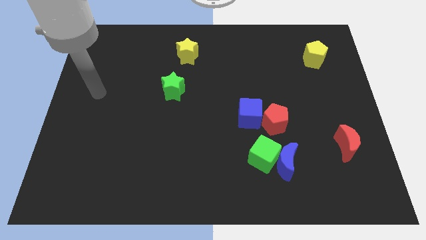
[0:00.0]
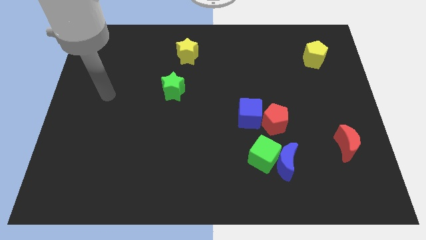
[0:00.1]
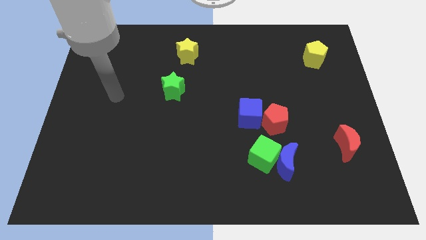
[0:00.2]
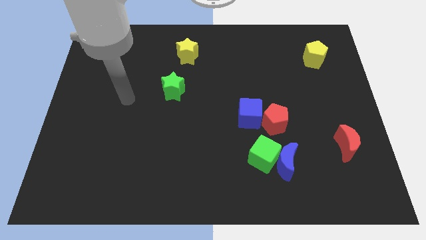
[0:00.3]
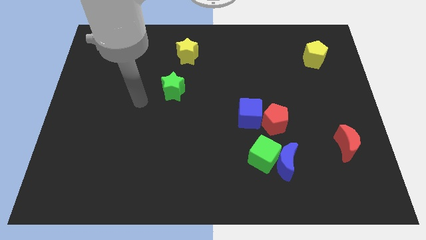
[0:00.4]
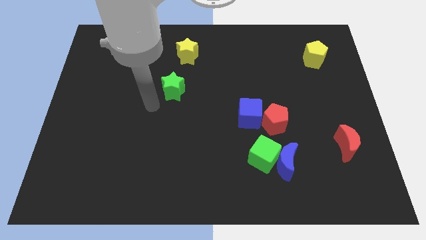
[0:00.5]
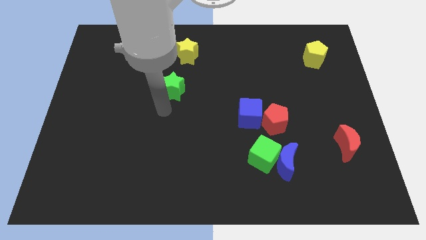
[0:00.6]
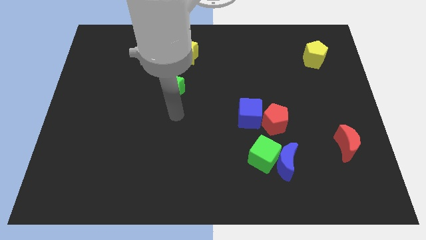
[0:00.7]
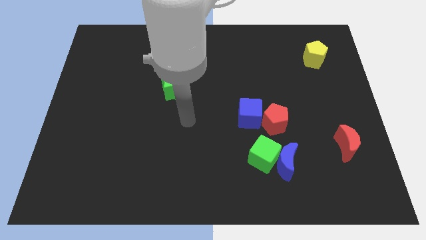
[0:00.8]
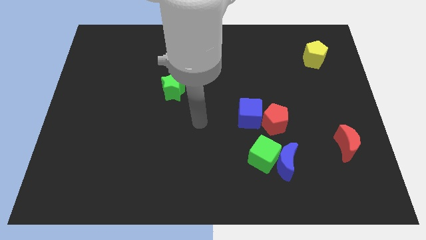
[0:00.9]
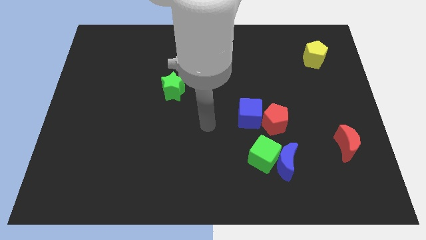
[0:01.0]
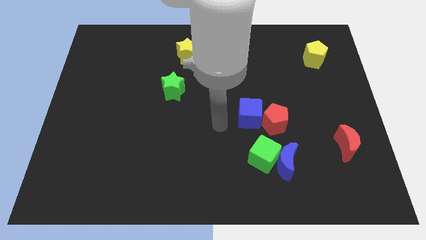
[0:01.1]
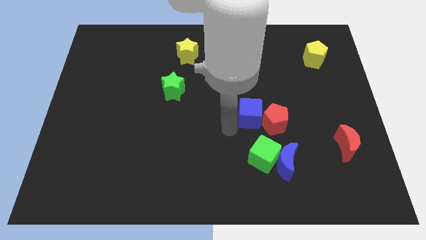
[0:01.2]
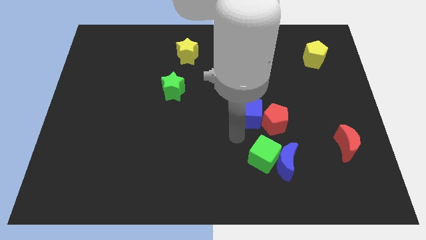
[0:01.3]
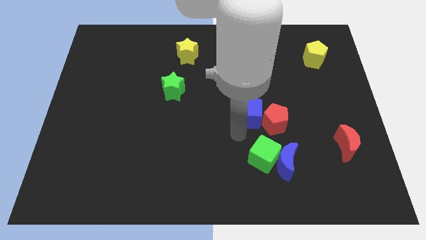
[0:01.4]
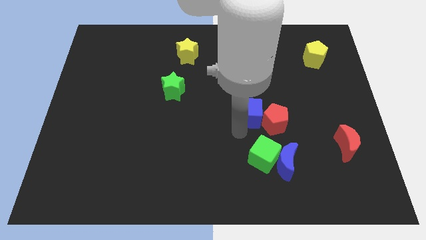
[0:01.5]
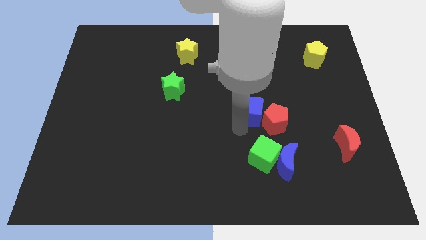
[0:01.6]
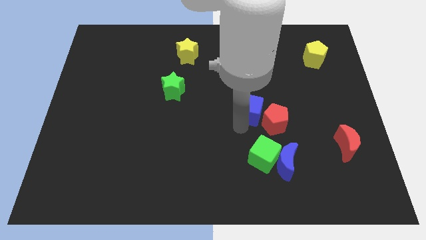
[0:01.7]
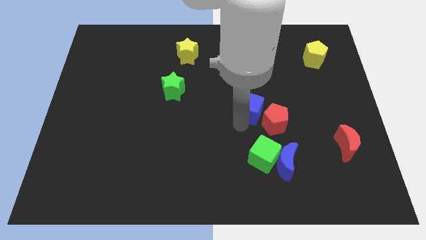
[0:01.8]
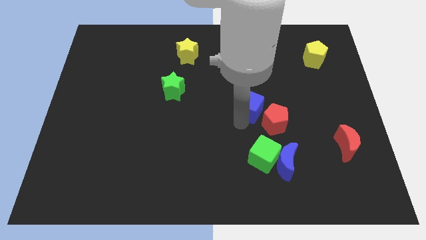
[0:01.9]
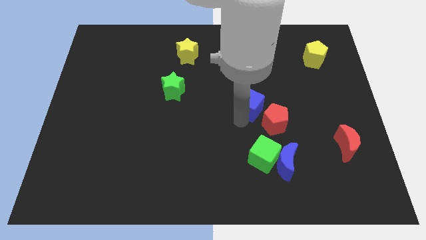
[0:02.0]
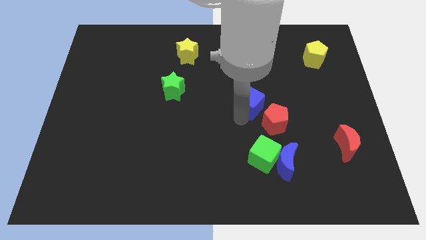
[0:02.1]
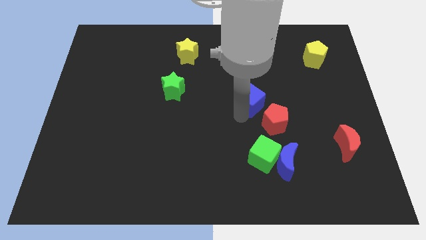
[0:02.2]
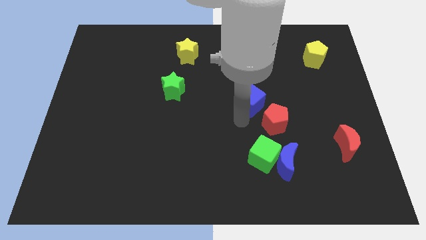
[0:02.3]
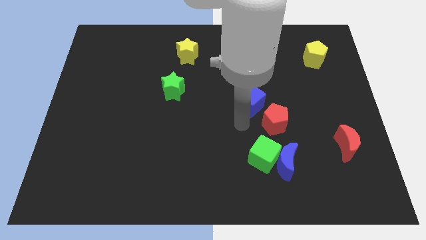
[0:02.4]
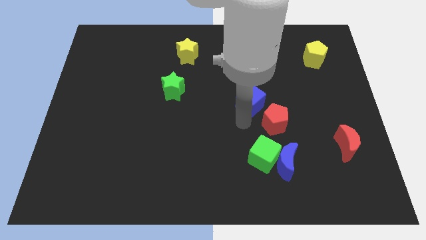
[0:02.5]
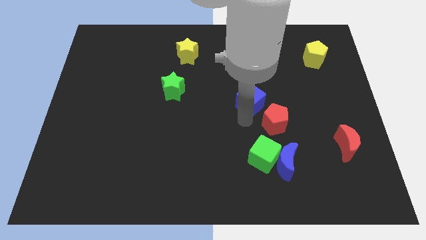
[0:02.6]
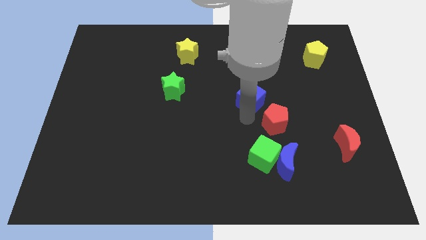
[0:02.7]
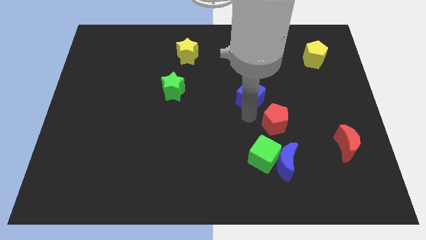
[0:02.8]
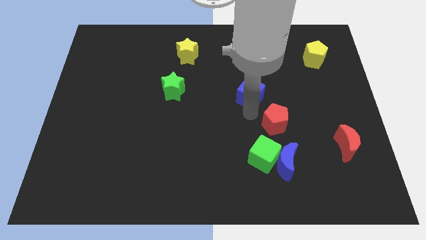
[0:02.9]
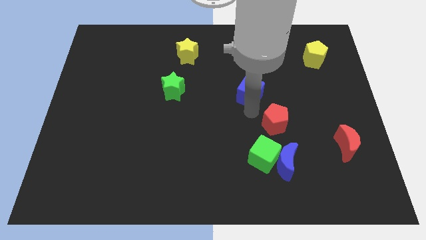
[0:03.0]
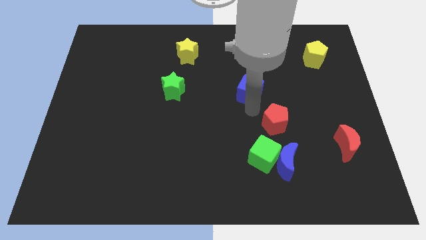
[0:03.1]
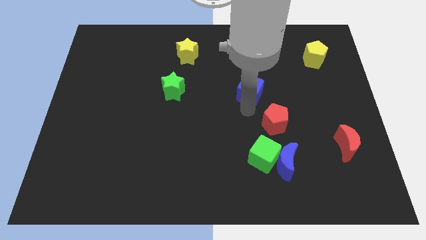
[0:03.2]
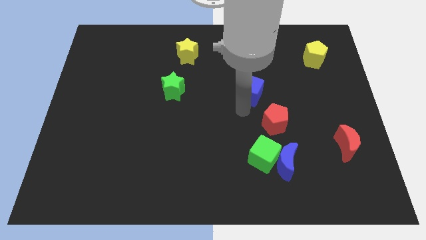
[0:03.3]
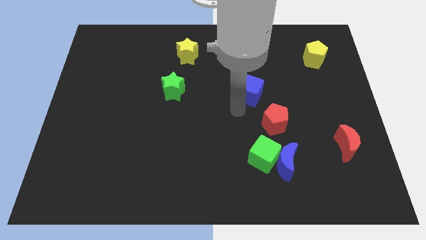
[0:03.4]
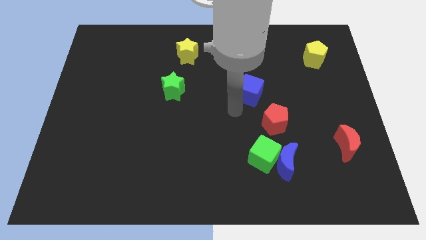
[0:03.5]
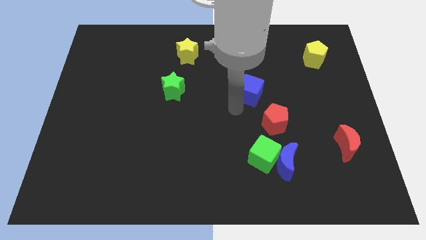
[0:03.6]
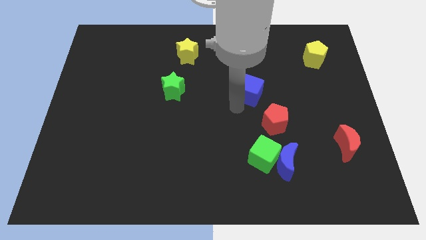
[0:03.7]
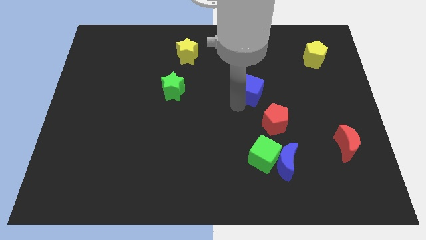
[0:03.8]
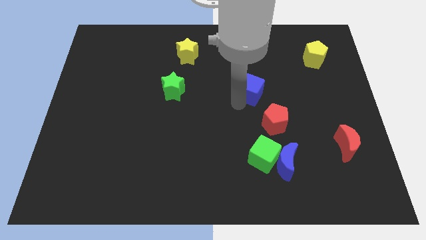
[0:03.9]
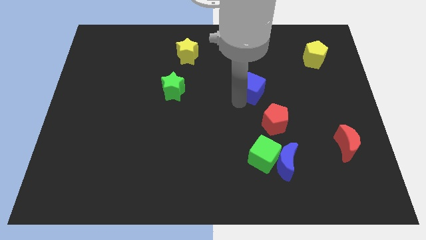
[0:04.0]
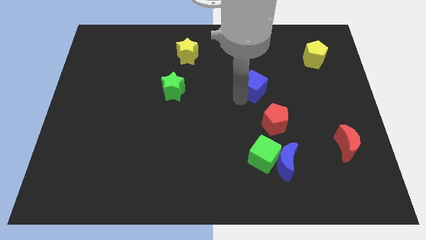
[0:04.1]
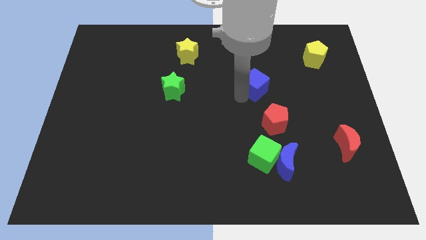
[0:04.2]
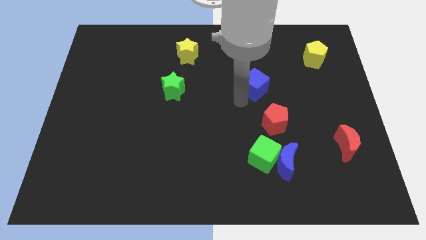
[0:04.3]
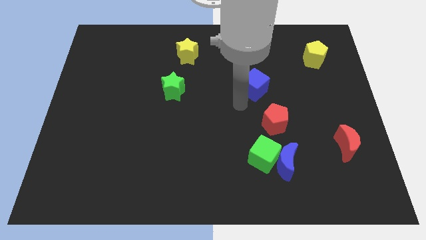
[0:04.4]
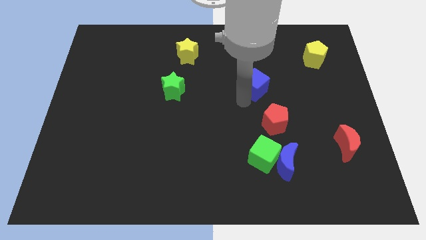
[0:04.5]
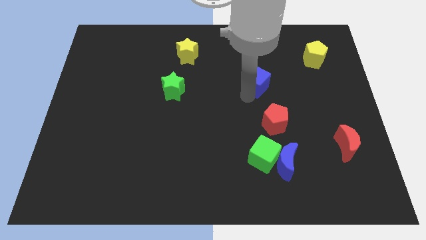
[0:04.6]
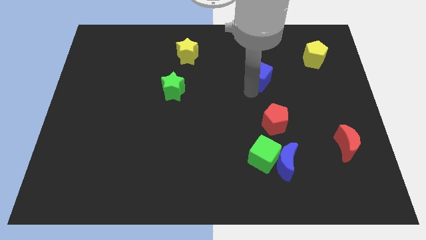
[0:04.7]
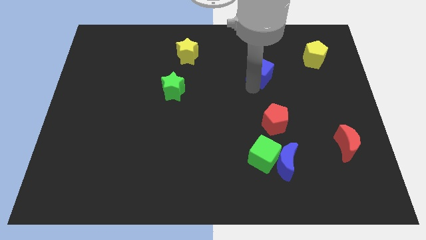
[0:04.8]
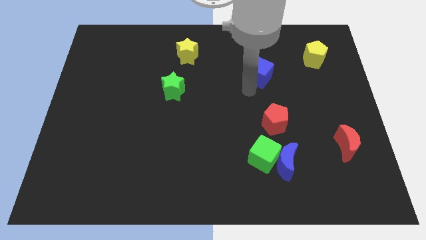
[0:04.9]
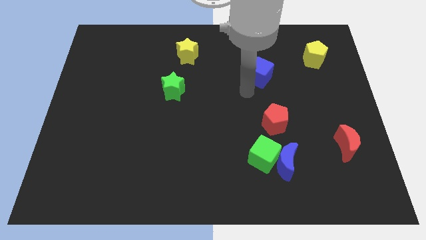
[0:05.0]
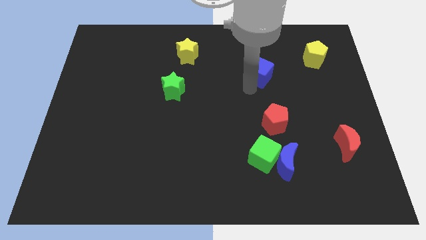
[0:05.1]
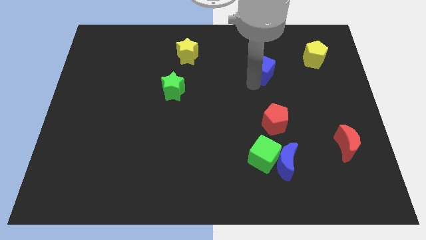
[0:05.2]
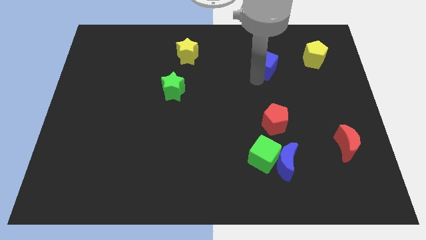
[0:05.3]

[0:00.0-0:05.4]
move the blue cube just left of the yellow pentagon

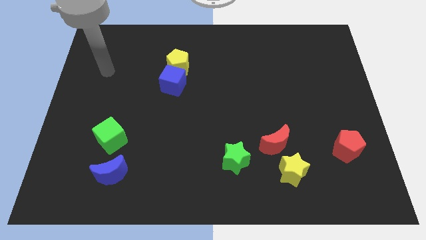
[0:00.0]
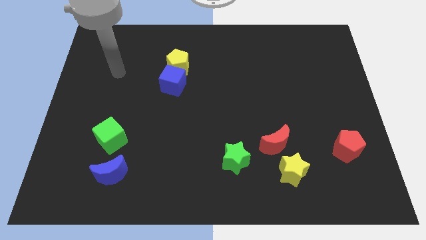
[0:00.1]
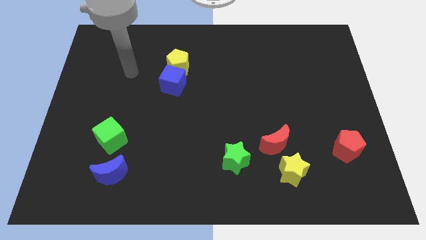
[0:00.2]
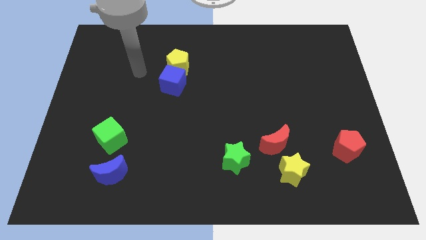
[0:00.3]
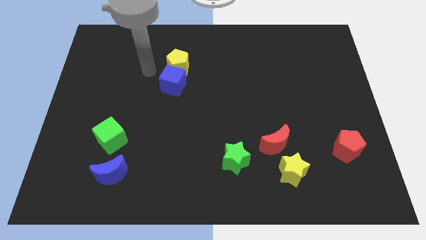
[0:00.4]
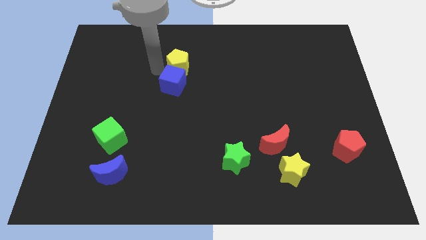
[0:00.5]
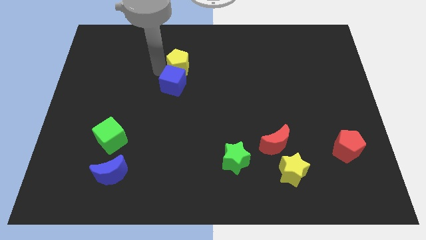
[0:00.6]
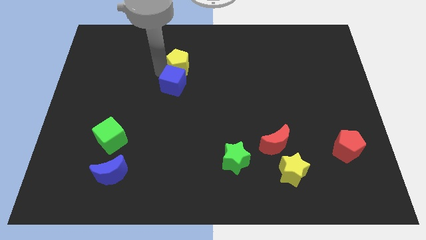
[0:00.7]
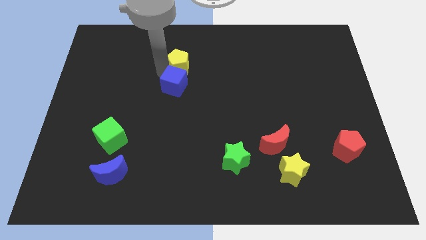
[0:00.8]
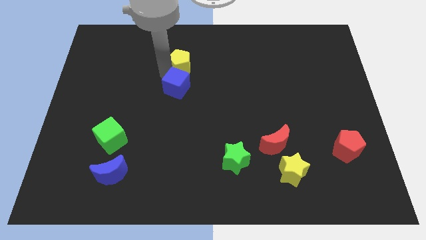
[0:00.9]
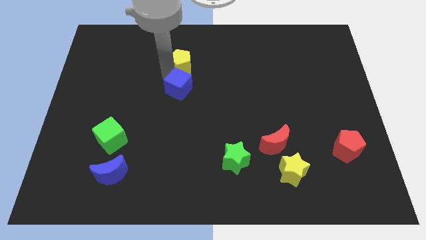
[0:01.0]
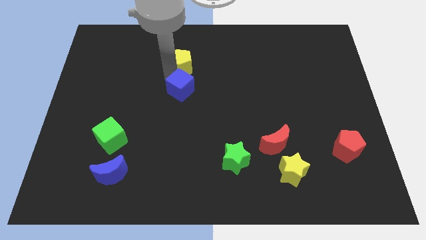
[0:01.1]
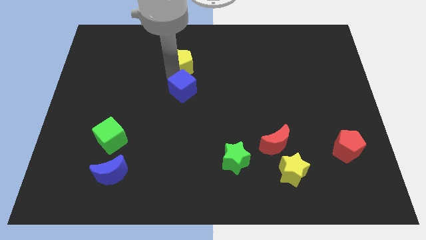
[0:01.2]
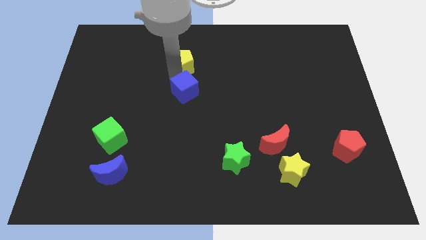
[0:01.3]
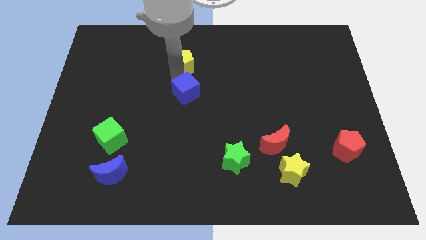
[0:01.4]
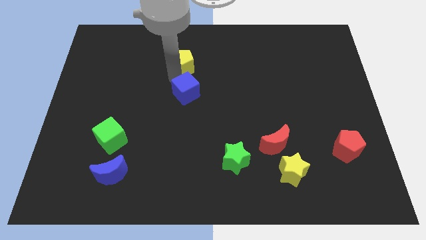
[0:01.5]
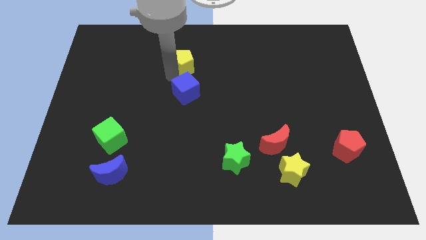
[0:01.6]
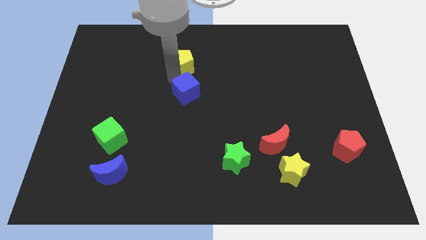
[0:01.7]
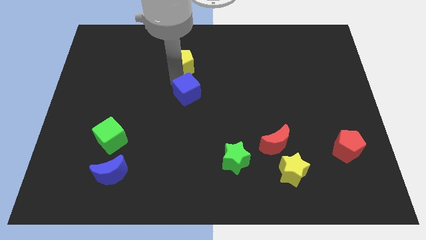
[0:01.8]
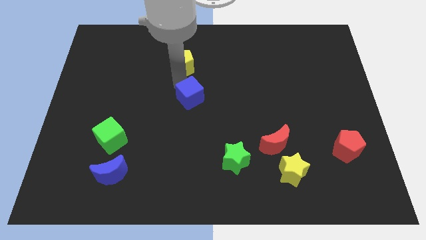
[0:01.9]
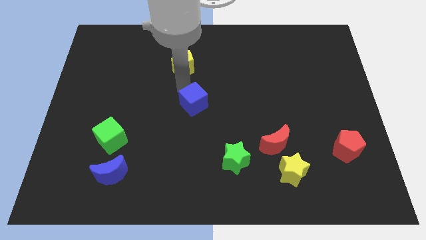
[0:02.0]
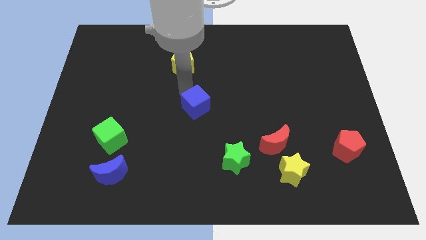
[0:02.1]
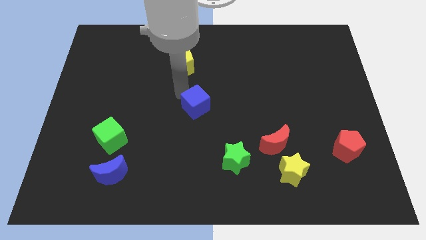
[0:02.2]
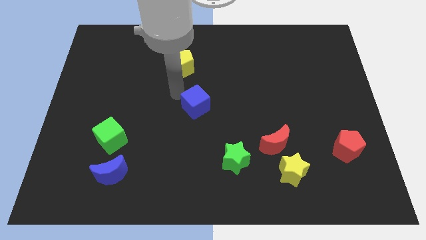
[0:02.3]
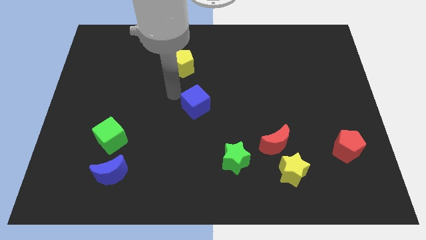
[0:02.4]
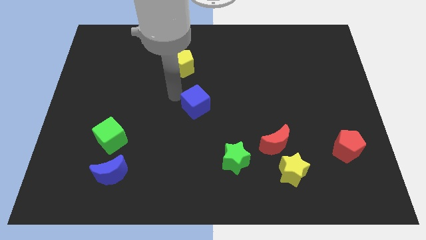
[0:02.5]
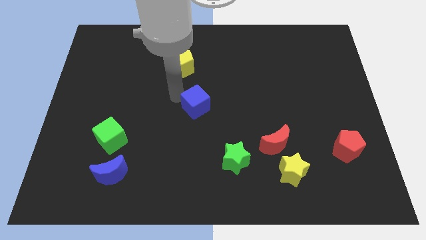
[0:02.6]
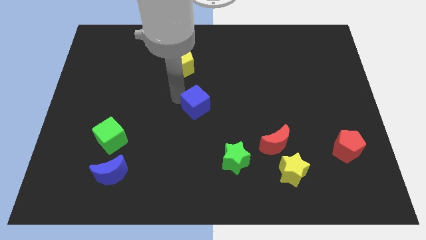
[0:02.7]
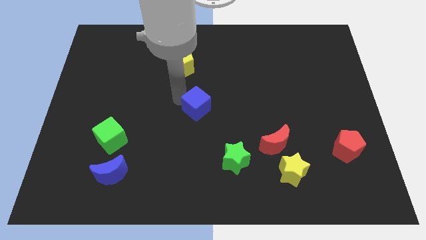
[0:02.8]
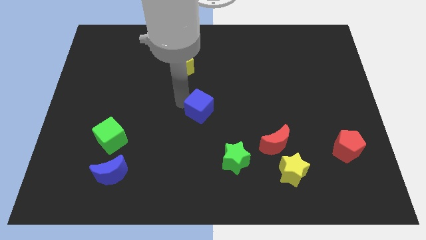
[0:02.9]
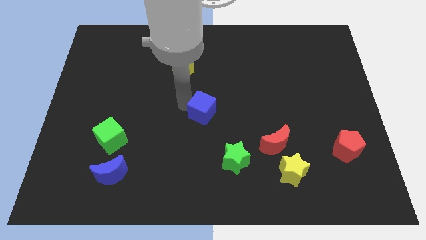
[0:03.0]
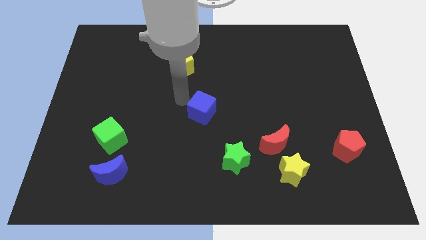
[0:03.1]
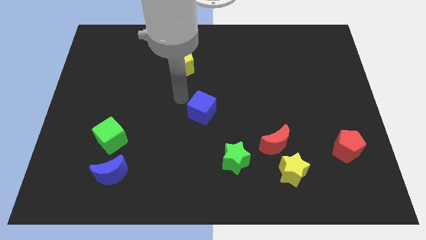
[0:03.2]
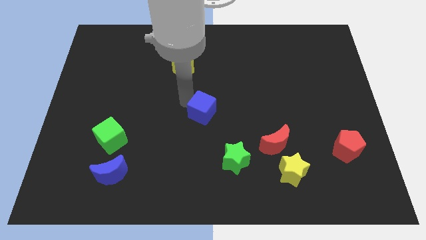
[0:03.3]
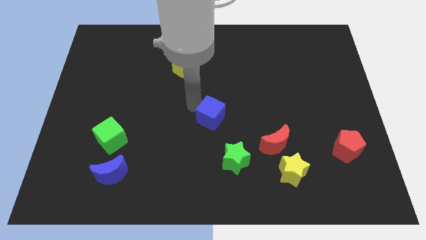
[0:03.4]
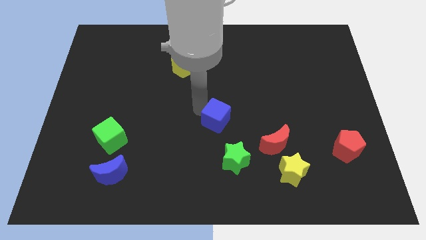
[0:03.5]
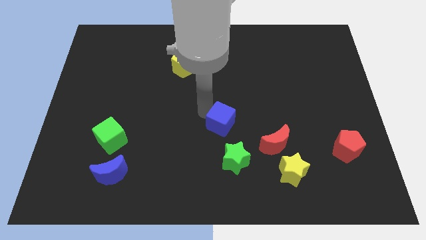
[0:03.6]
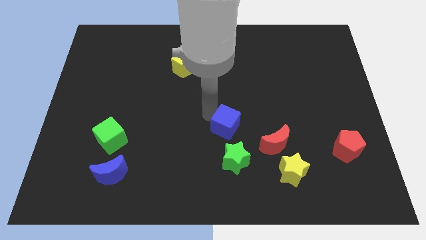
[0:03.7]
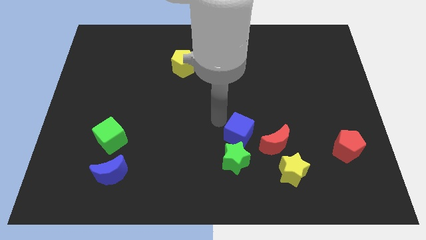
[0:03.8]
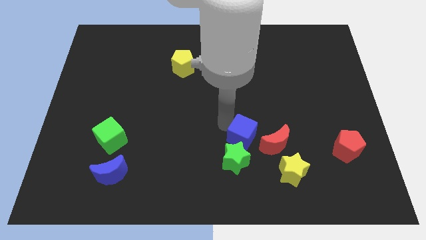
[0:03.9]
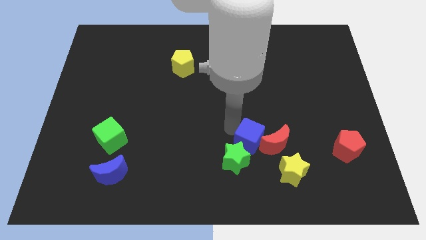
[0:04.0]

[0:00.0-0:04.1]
slide the blue cube diagonally up and to the left of the yellow star
